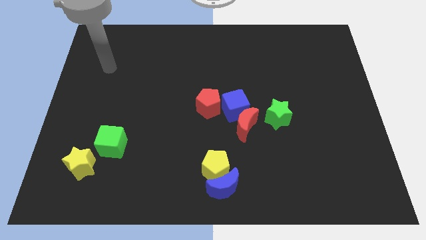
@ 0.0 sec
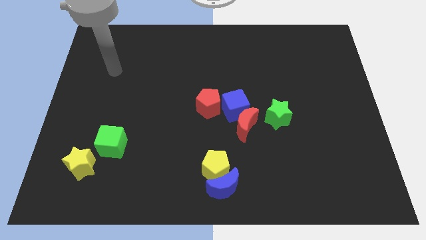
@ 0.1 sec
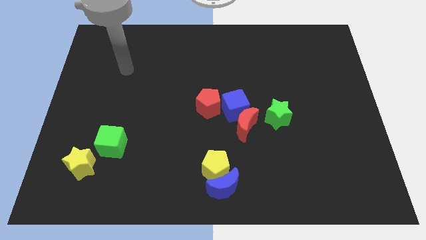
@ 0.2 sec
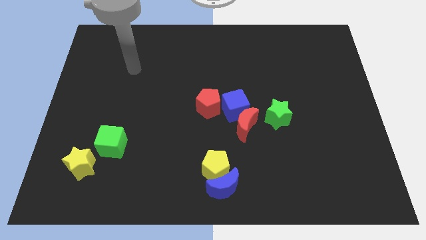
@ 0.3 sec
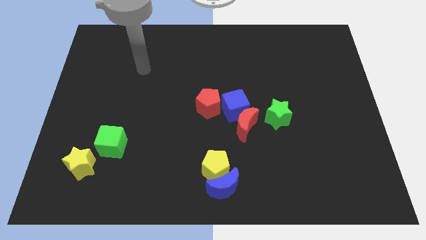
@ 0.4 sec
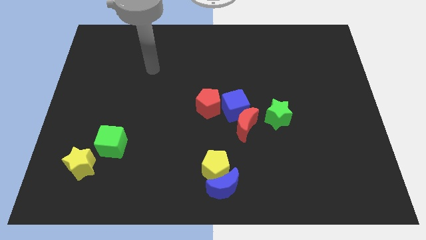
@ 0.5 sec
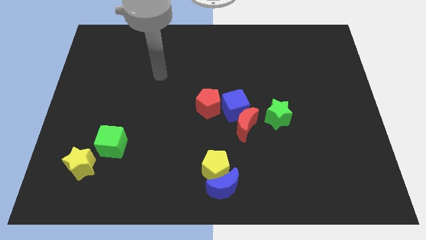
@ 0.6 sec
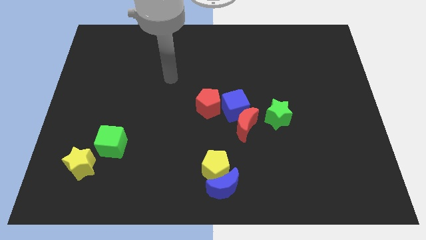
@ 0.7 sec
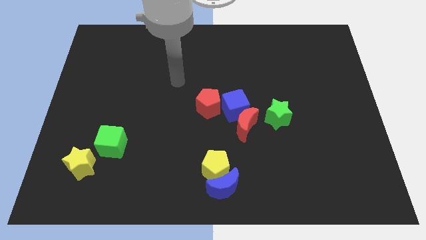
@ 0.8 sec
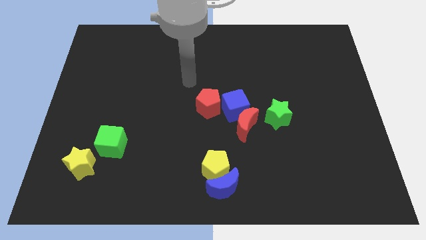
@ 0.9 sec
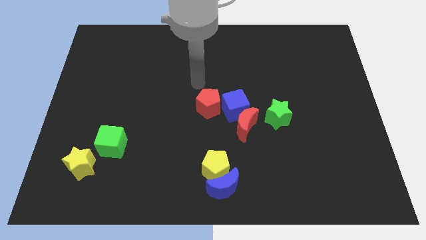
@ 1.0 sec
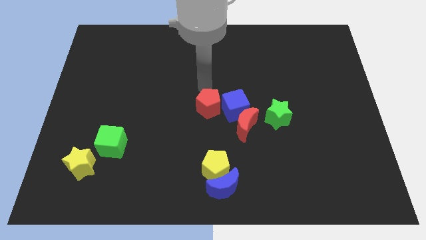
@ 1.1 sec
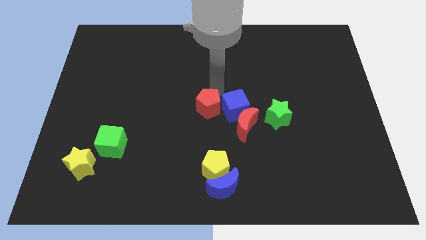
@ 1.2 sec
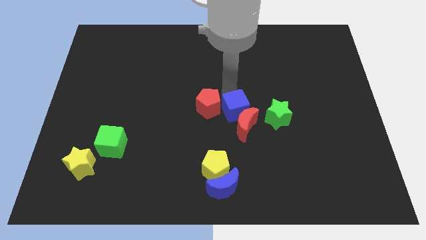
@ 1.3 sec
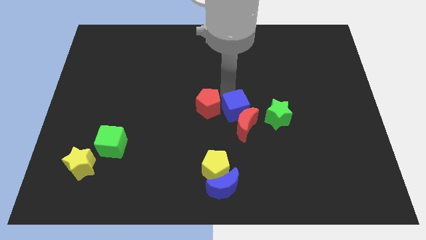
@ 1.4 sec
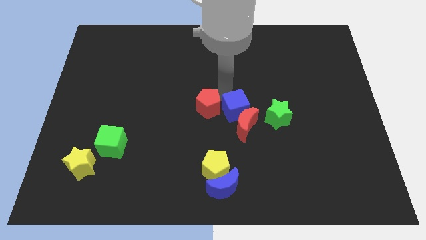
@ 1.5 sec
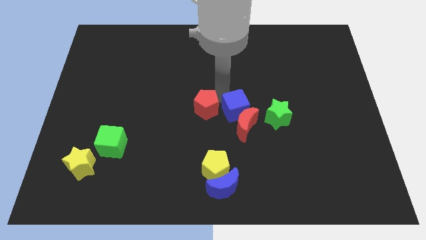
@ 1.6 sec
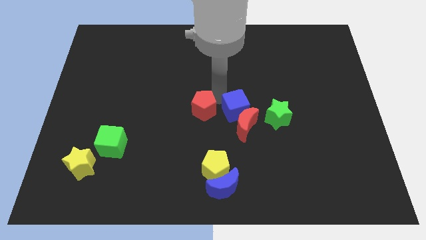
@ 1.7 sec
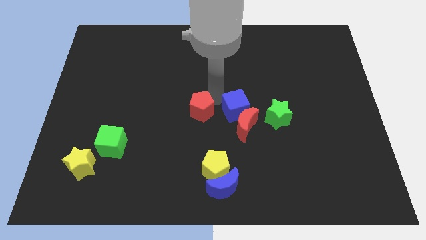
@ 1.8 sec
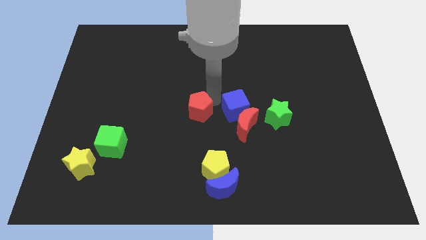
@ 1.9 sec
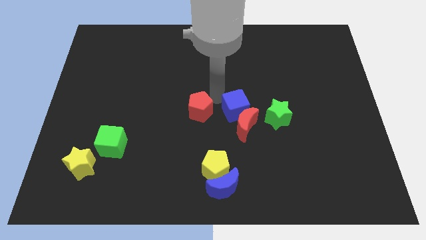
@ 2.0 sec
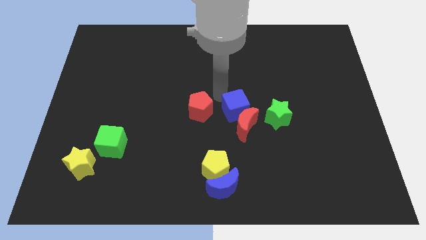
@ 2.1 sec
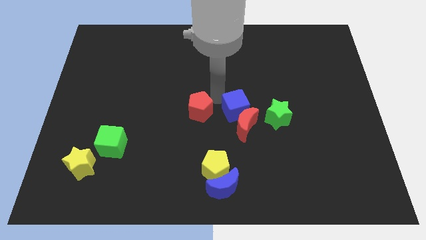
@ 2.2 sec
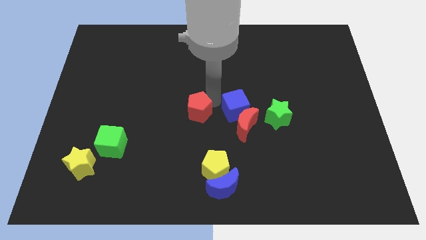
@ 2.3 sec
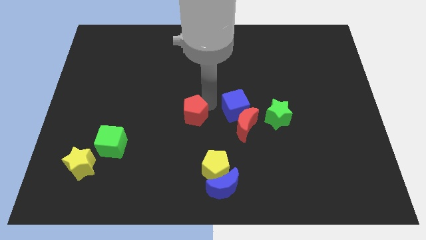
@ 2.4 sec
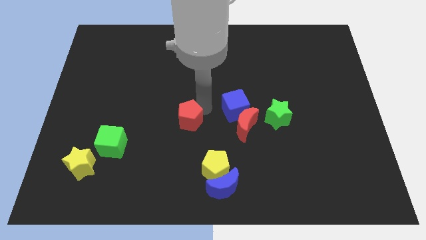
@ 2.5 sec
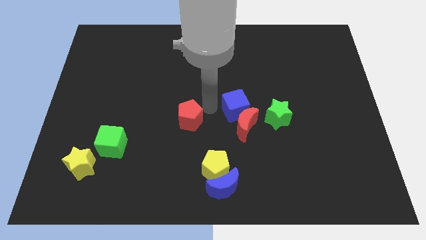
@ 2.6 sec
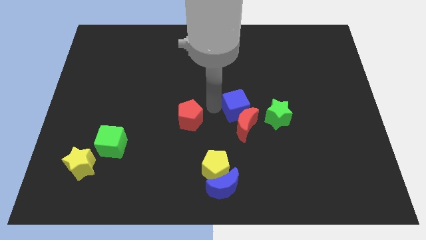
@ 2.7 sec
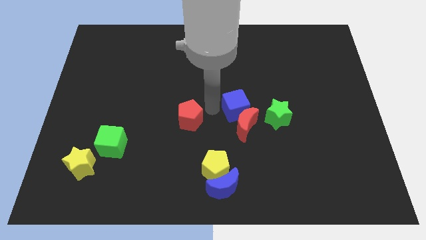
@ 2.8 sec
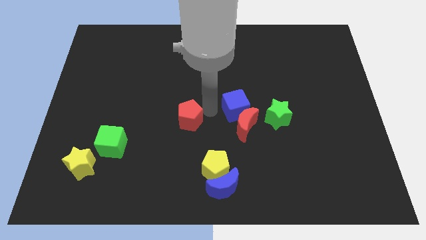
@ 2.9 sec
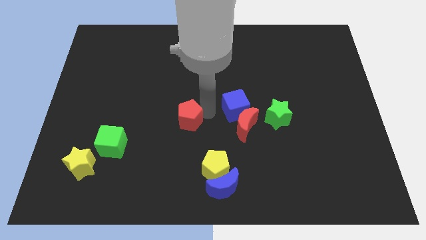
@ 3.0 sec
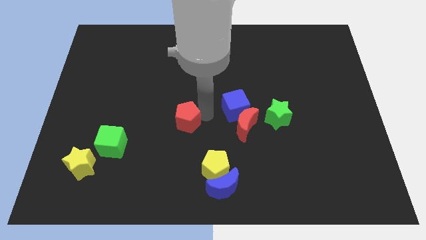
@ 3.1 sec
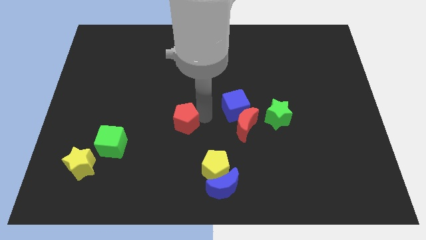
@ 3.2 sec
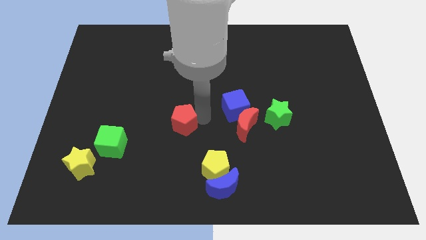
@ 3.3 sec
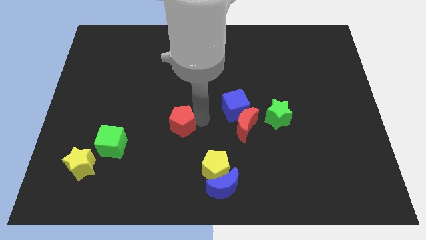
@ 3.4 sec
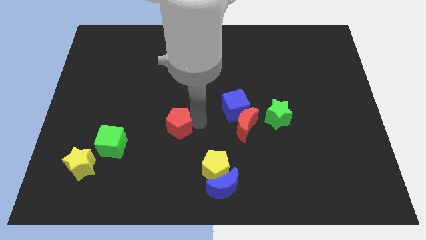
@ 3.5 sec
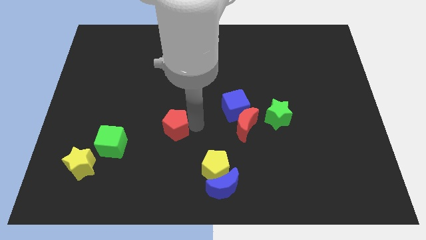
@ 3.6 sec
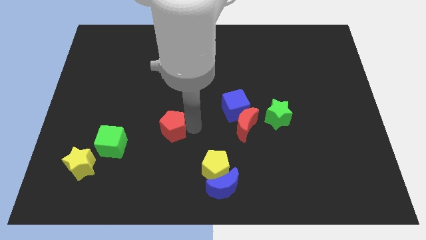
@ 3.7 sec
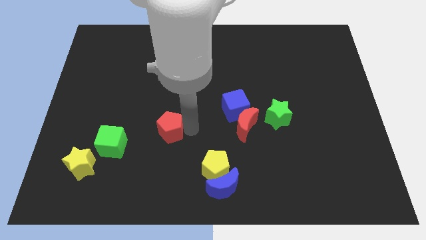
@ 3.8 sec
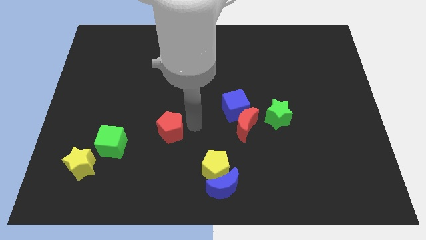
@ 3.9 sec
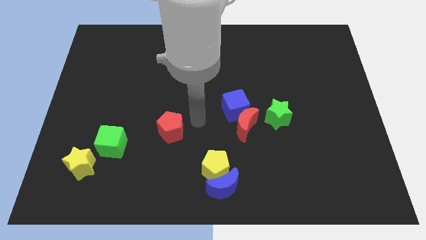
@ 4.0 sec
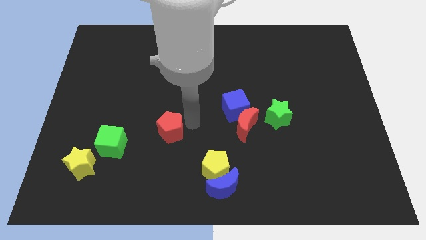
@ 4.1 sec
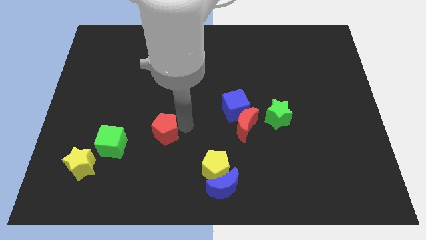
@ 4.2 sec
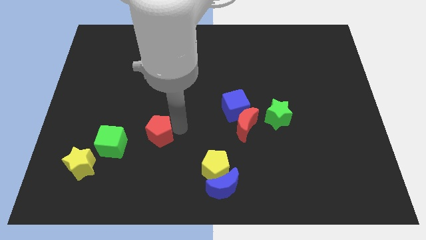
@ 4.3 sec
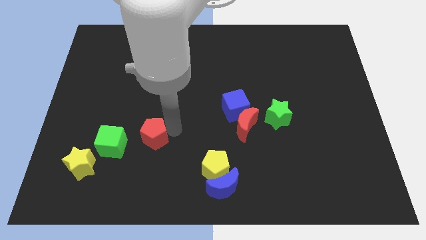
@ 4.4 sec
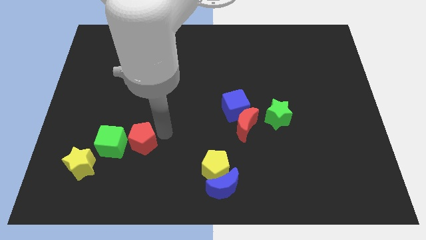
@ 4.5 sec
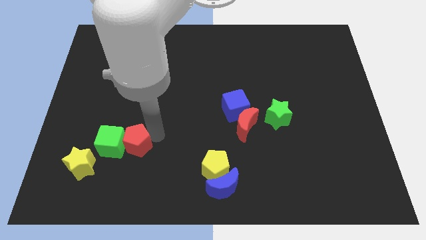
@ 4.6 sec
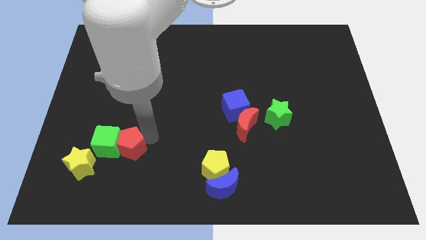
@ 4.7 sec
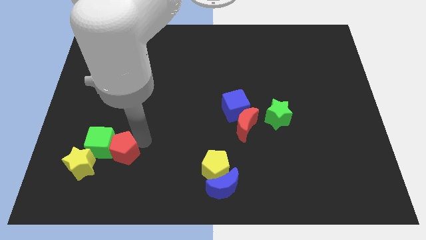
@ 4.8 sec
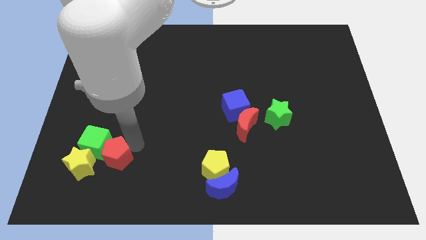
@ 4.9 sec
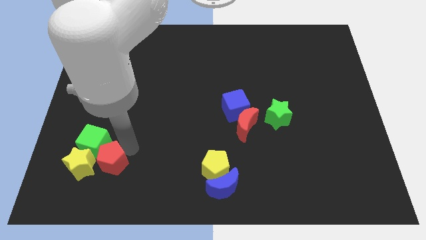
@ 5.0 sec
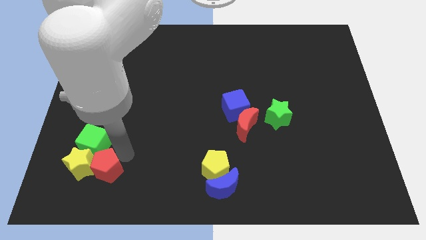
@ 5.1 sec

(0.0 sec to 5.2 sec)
move the red pentagon next to the yellow star

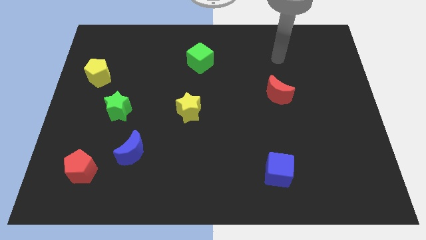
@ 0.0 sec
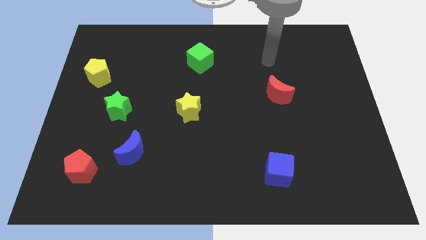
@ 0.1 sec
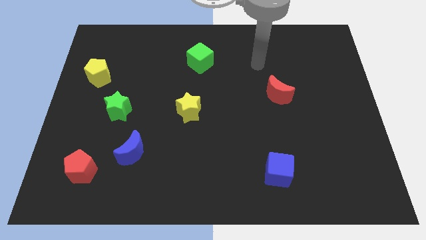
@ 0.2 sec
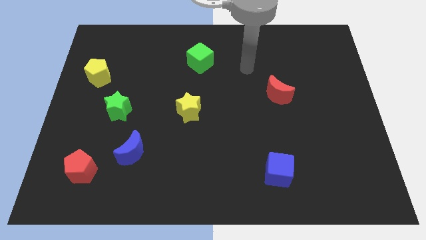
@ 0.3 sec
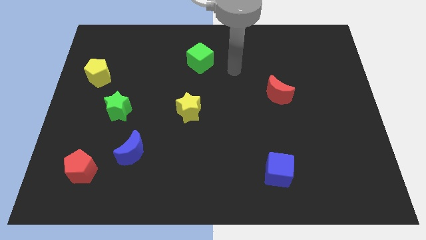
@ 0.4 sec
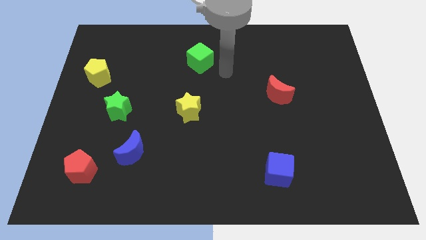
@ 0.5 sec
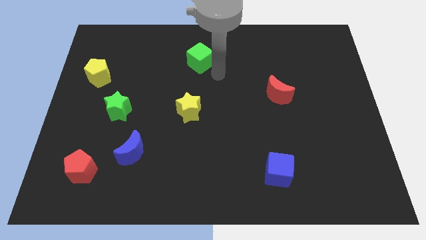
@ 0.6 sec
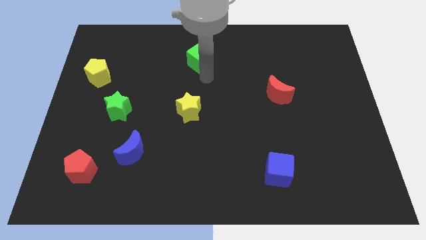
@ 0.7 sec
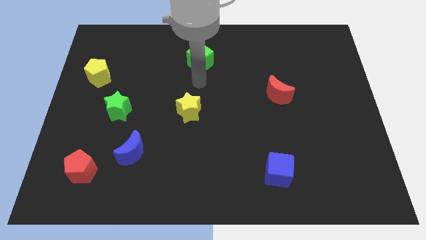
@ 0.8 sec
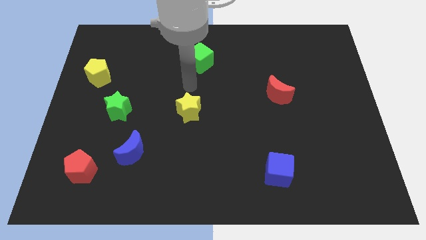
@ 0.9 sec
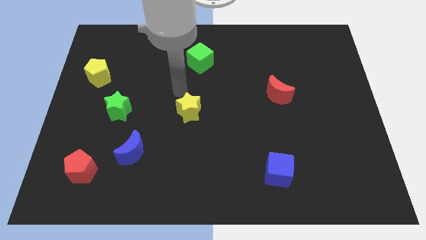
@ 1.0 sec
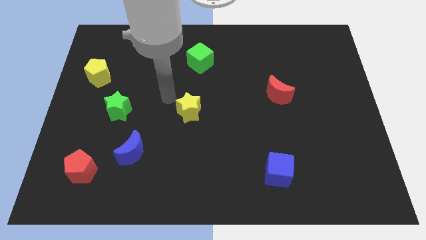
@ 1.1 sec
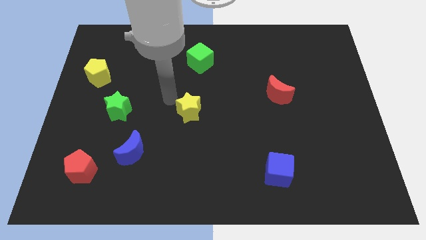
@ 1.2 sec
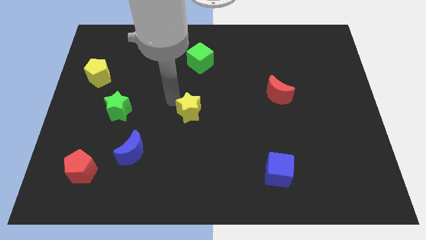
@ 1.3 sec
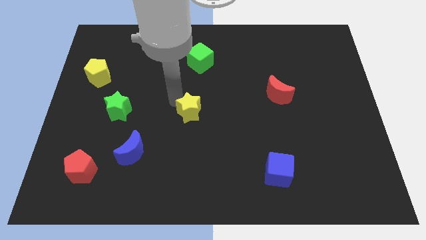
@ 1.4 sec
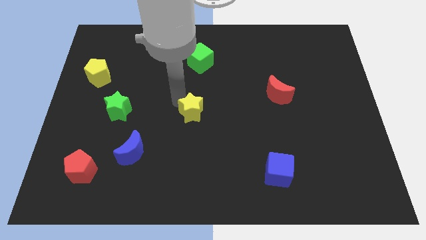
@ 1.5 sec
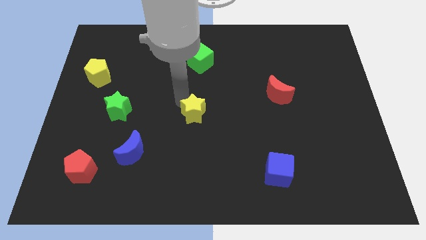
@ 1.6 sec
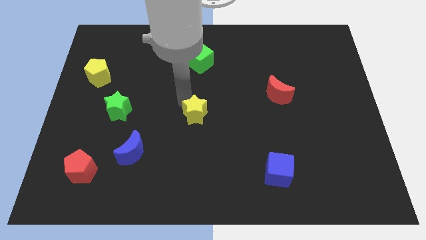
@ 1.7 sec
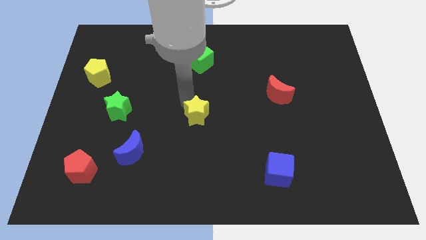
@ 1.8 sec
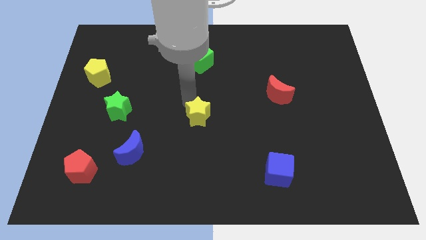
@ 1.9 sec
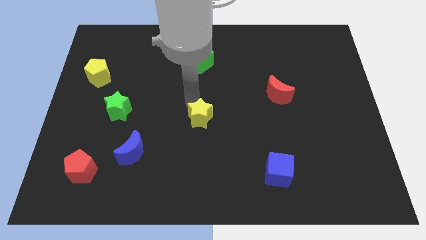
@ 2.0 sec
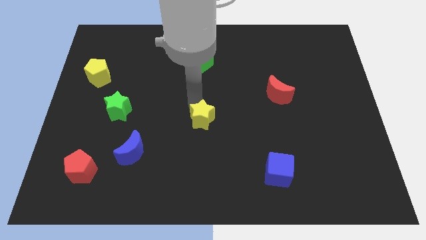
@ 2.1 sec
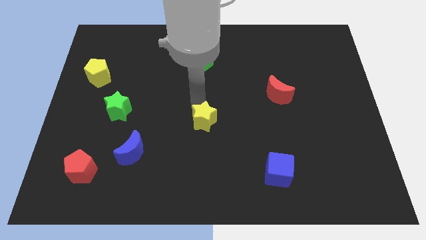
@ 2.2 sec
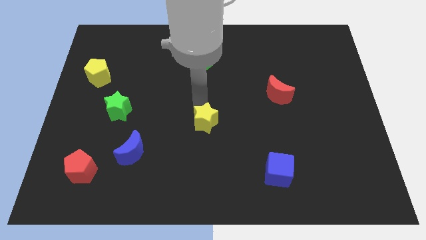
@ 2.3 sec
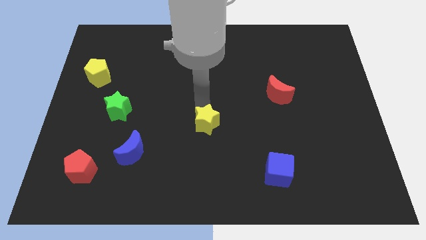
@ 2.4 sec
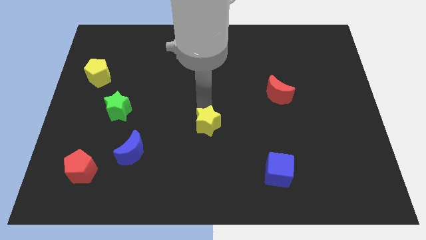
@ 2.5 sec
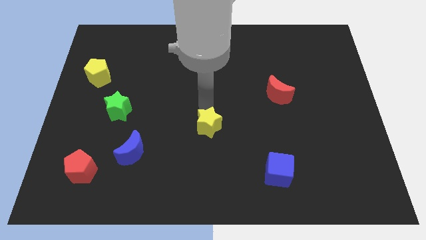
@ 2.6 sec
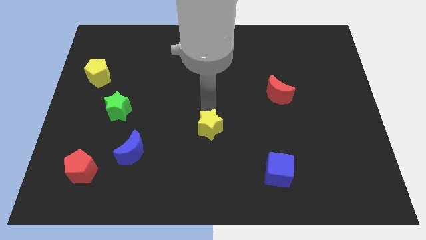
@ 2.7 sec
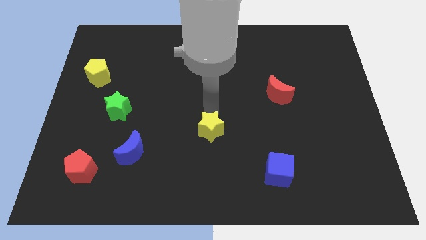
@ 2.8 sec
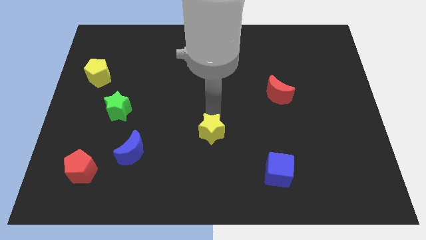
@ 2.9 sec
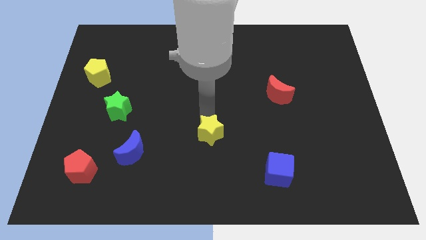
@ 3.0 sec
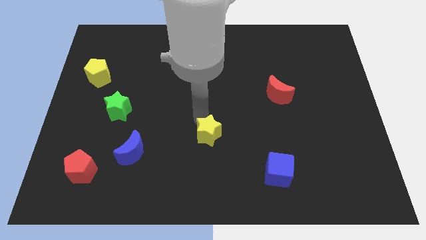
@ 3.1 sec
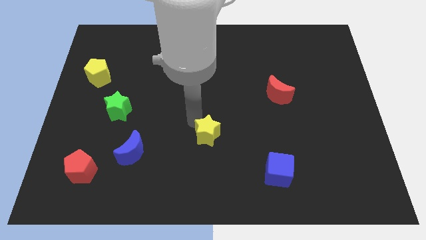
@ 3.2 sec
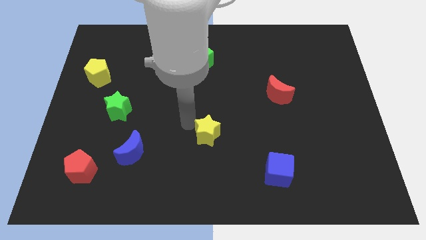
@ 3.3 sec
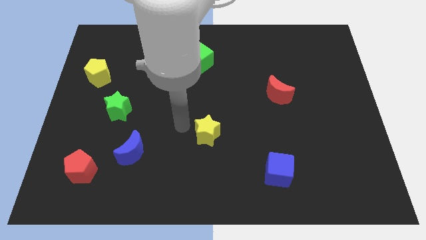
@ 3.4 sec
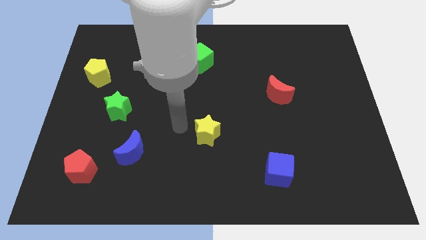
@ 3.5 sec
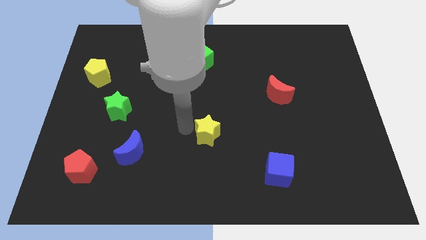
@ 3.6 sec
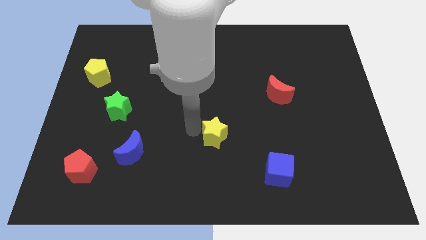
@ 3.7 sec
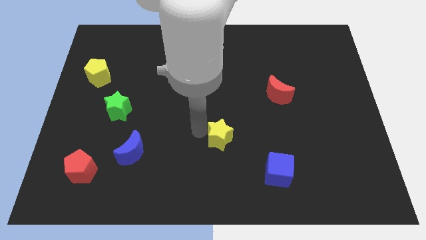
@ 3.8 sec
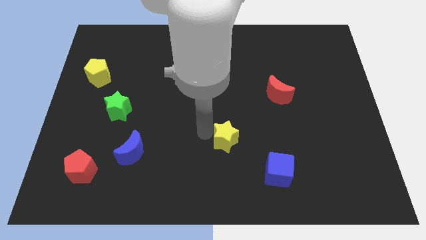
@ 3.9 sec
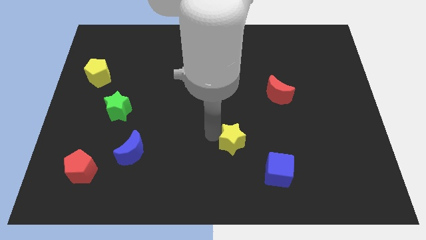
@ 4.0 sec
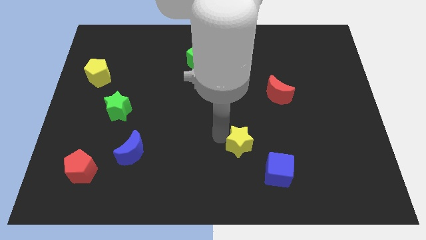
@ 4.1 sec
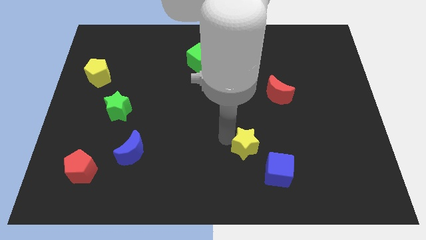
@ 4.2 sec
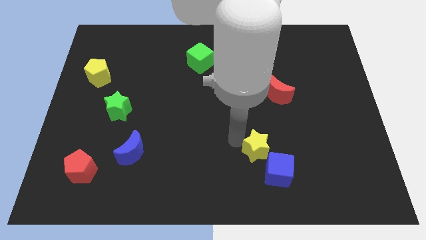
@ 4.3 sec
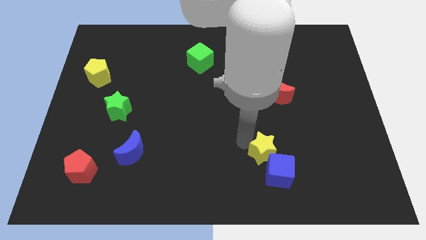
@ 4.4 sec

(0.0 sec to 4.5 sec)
slide the yellow star next to the blue cube
